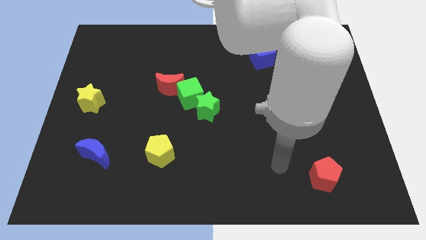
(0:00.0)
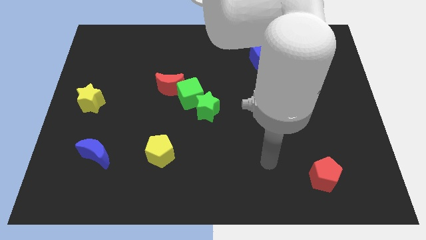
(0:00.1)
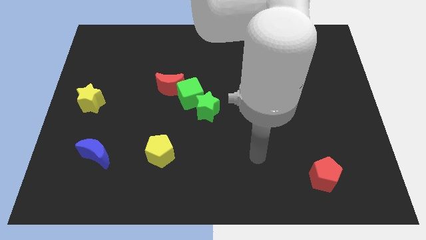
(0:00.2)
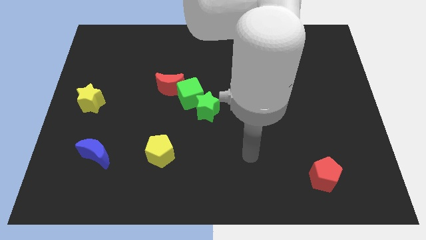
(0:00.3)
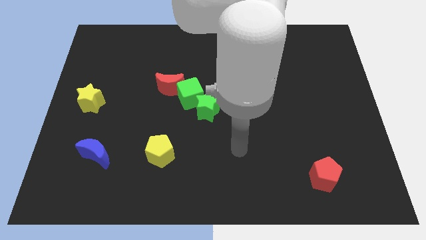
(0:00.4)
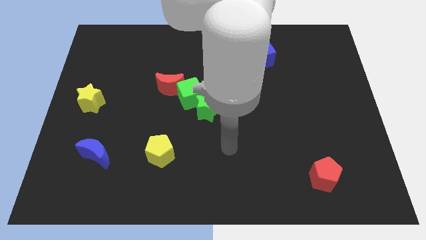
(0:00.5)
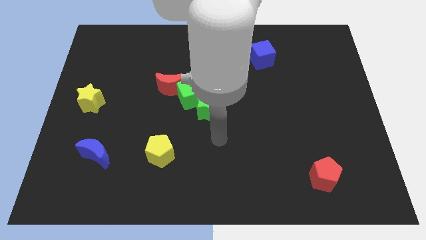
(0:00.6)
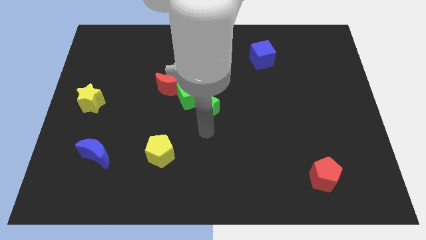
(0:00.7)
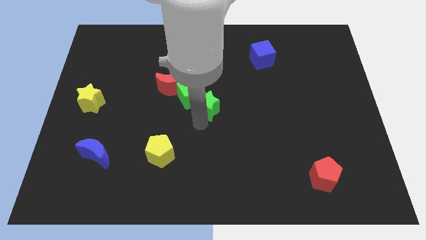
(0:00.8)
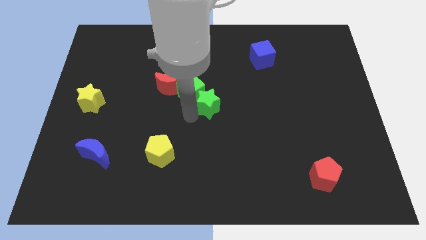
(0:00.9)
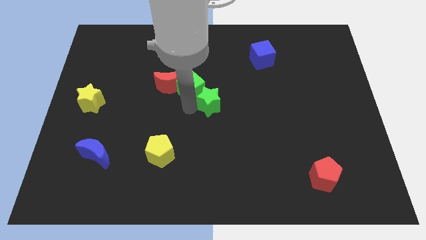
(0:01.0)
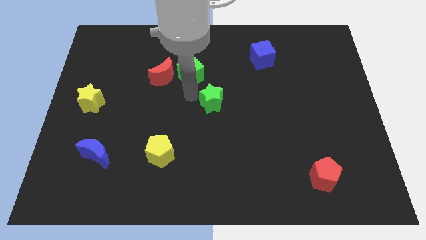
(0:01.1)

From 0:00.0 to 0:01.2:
move the green star away from the green cube

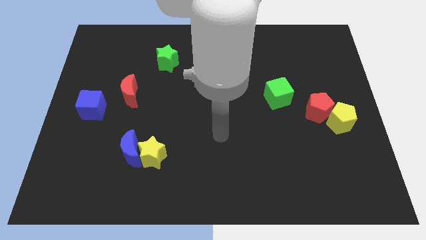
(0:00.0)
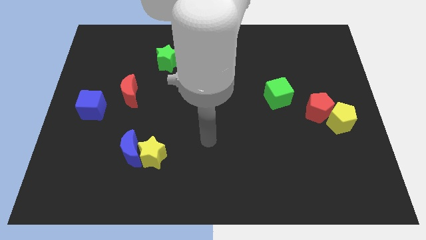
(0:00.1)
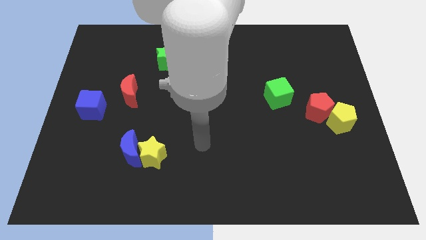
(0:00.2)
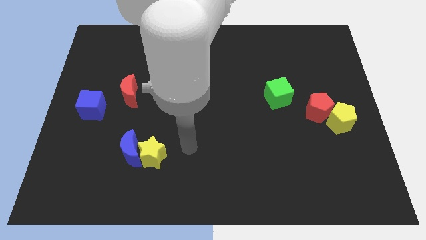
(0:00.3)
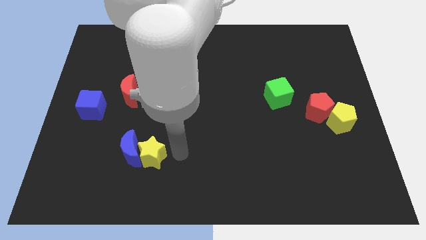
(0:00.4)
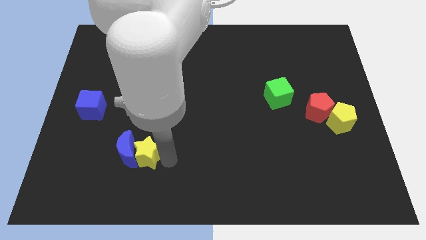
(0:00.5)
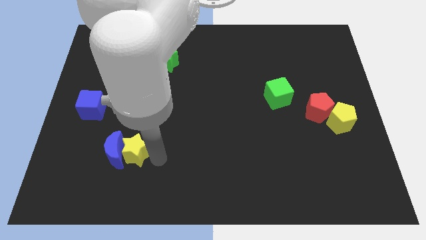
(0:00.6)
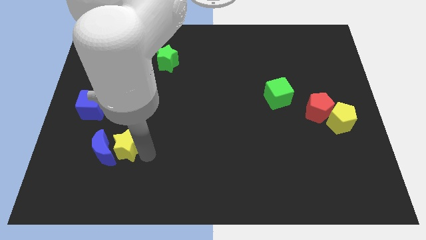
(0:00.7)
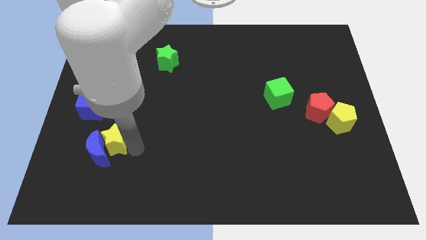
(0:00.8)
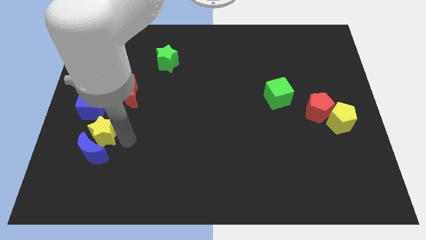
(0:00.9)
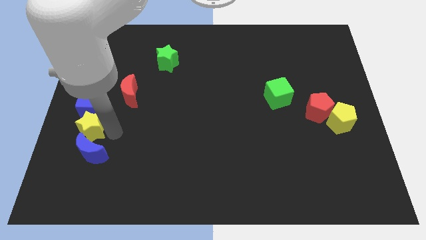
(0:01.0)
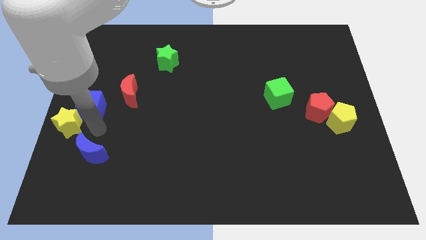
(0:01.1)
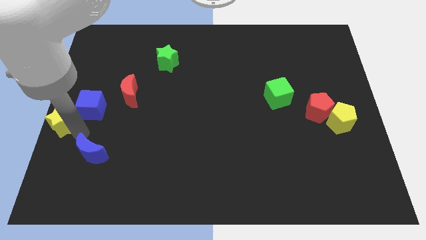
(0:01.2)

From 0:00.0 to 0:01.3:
separate the blue moon from the yellow star

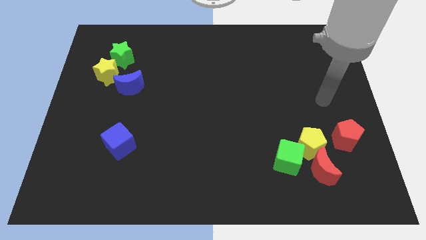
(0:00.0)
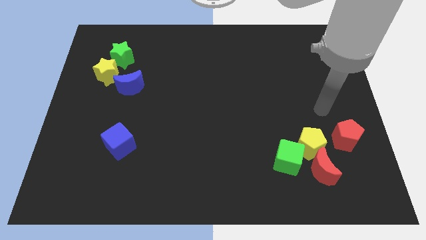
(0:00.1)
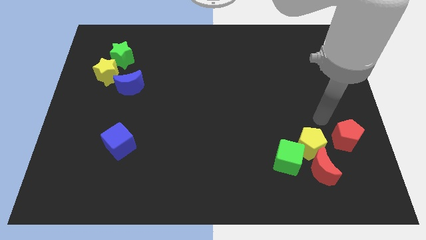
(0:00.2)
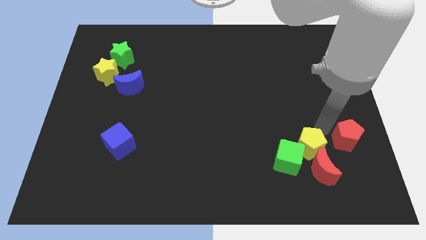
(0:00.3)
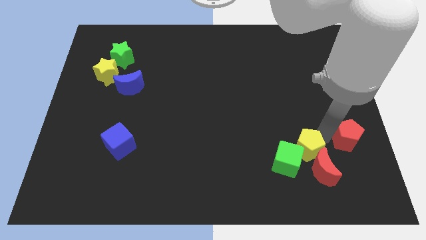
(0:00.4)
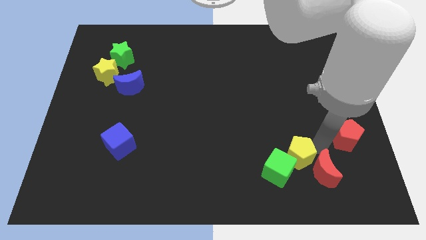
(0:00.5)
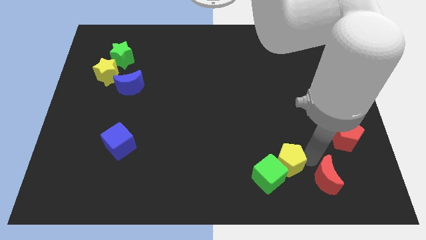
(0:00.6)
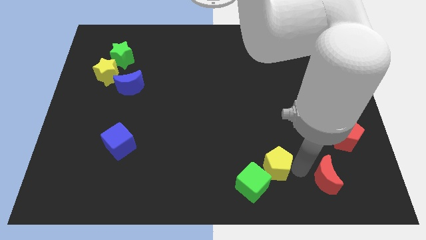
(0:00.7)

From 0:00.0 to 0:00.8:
pull the green cube apart from the yellow pentagon and red moon

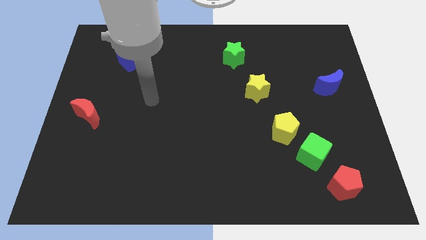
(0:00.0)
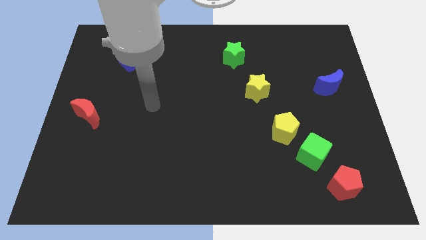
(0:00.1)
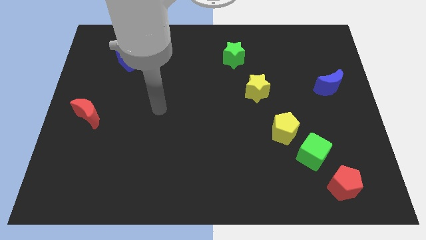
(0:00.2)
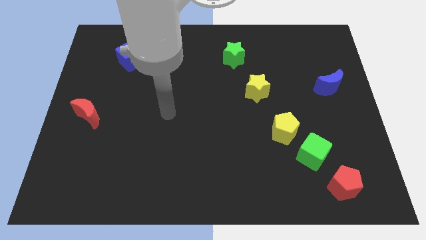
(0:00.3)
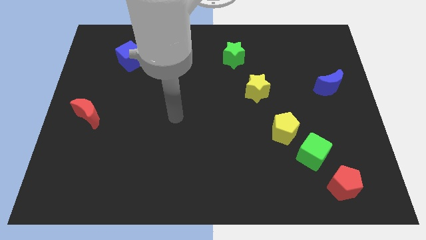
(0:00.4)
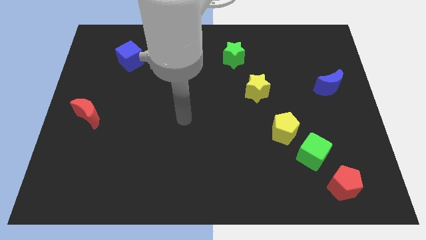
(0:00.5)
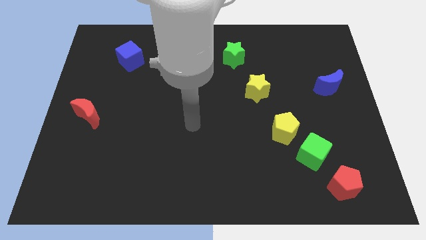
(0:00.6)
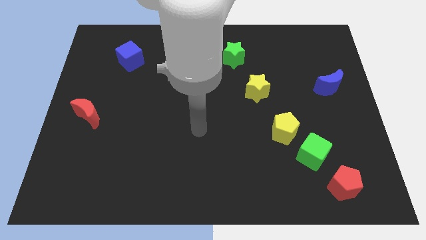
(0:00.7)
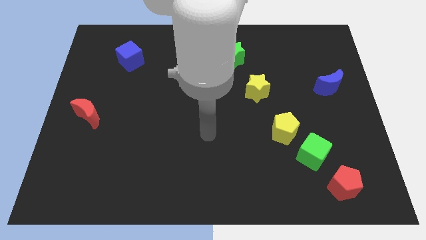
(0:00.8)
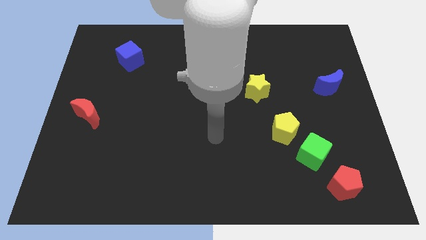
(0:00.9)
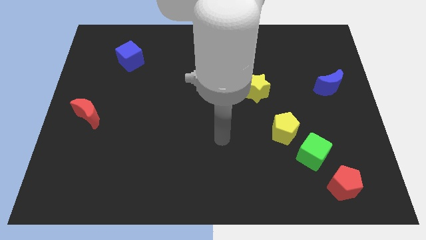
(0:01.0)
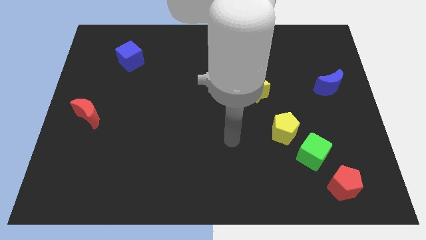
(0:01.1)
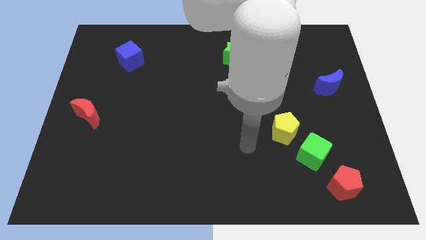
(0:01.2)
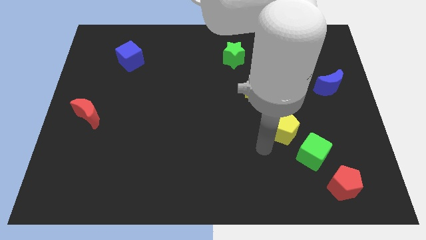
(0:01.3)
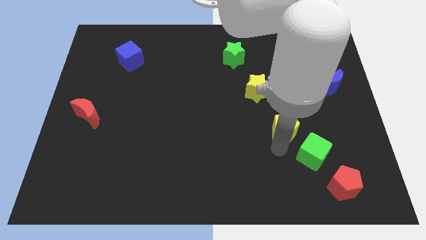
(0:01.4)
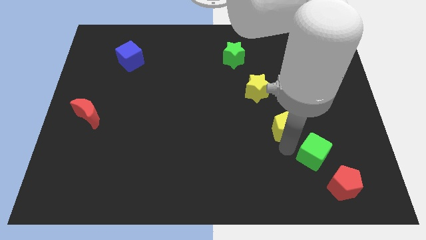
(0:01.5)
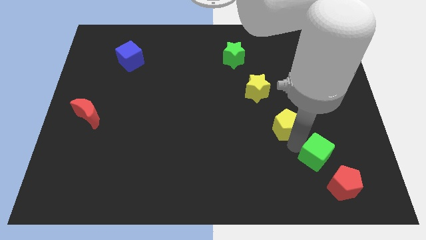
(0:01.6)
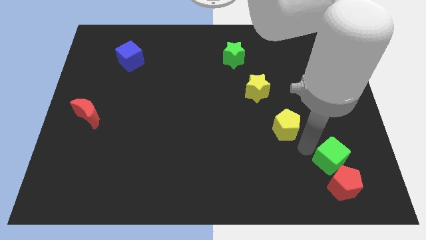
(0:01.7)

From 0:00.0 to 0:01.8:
pull the yellow pentagon apart from the green cube

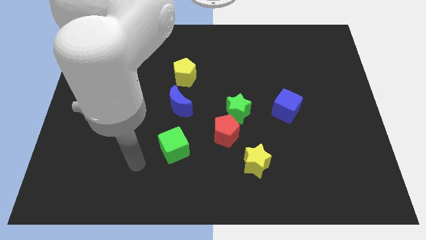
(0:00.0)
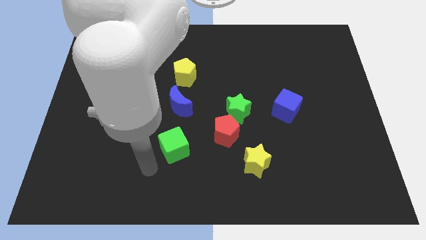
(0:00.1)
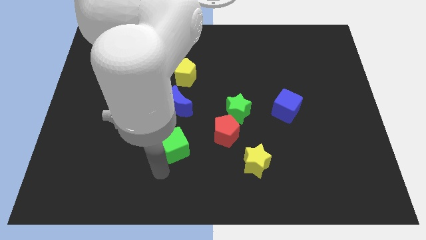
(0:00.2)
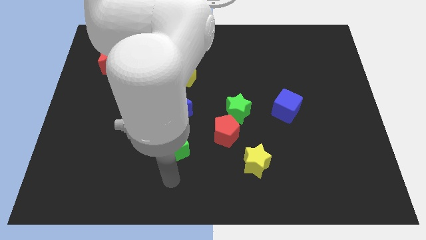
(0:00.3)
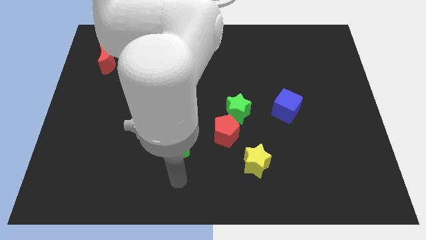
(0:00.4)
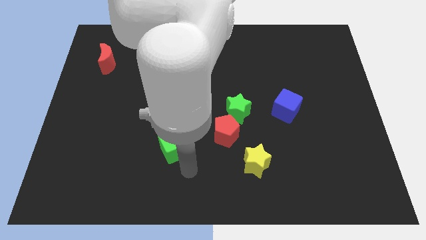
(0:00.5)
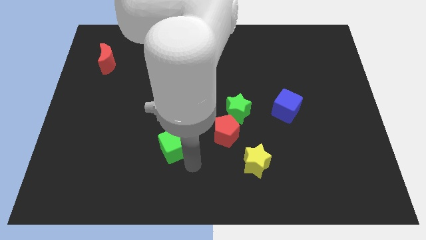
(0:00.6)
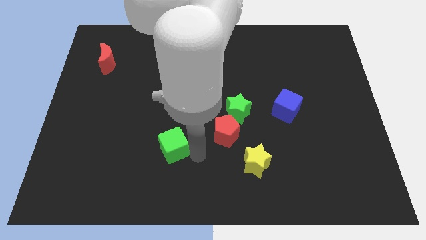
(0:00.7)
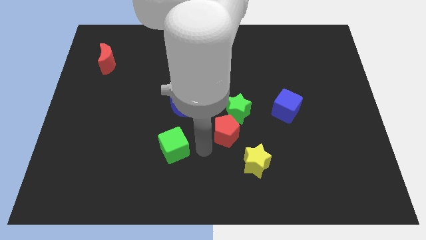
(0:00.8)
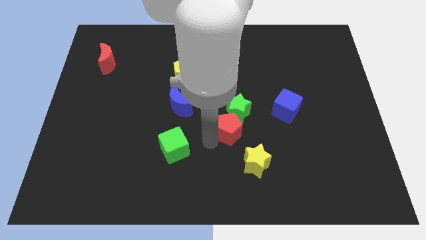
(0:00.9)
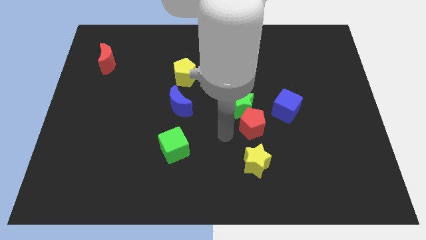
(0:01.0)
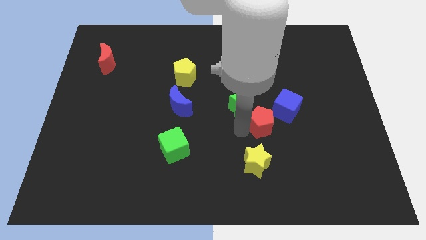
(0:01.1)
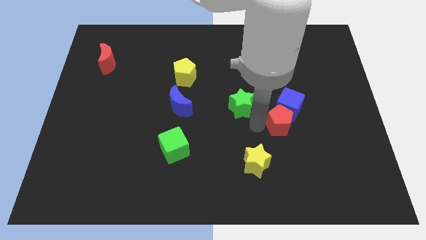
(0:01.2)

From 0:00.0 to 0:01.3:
separate the green star from the red pentagon

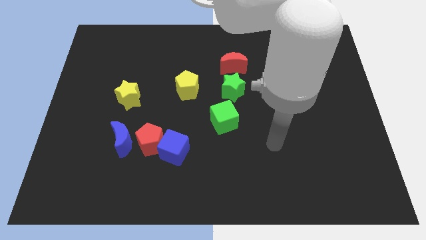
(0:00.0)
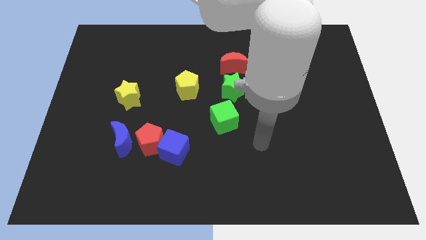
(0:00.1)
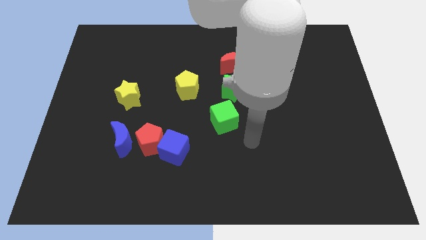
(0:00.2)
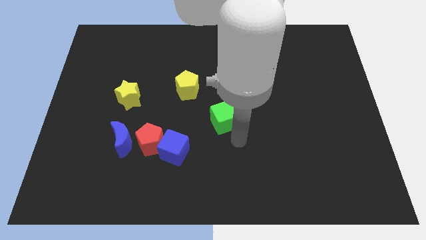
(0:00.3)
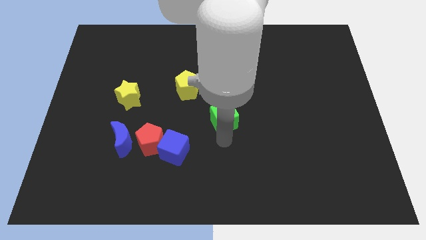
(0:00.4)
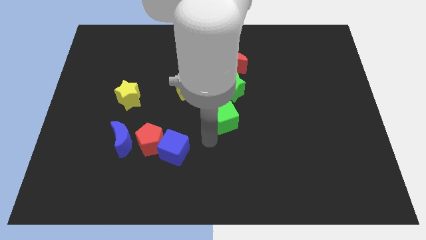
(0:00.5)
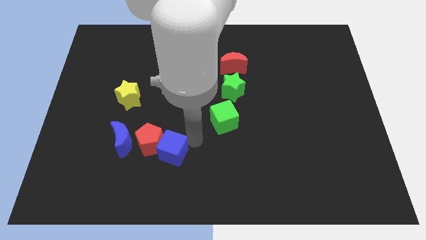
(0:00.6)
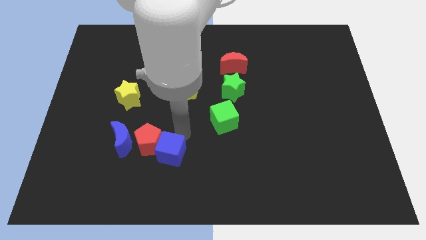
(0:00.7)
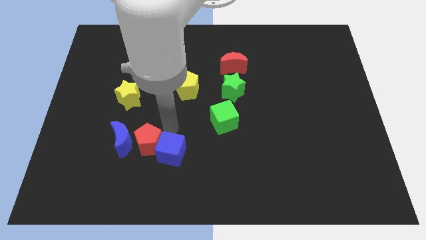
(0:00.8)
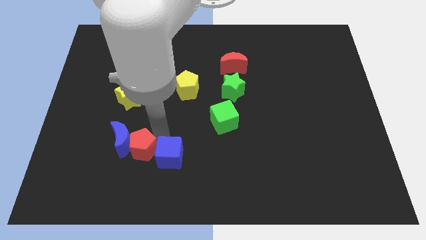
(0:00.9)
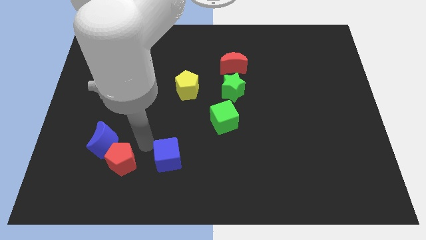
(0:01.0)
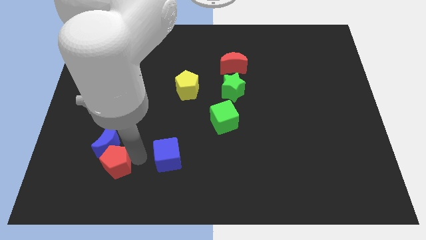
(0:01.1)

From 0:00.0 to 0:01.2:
move the blue cube away from the red pentagon

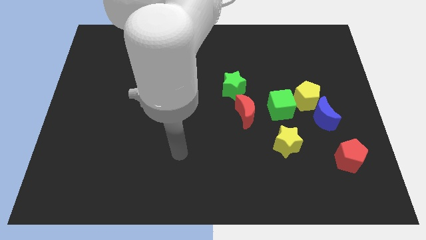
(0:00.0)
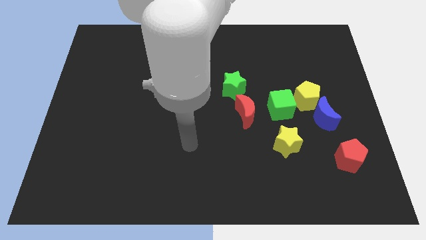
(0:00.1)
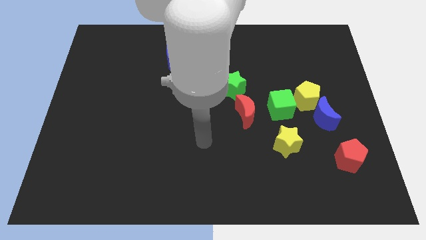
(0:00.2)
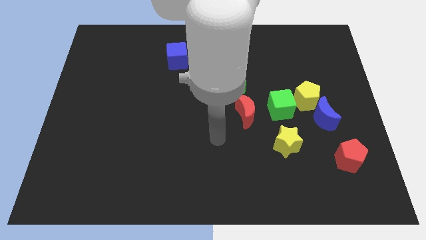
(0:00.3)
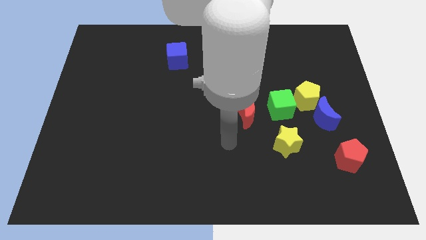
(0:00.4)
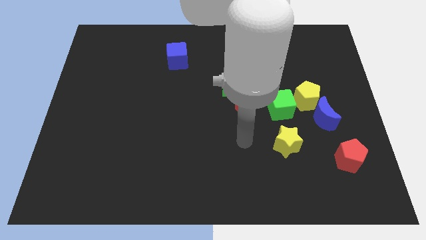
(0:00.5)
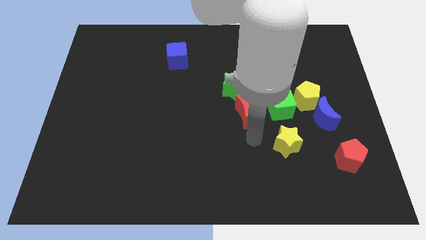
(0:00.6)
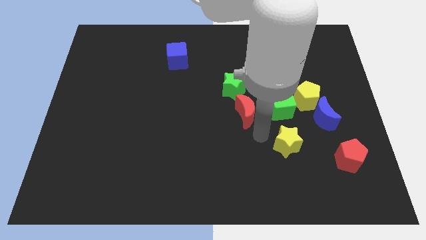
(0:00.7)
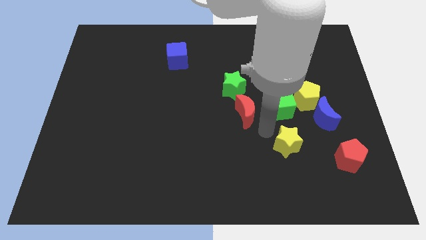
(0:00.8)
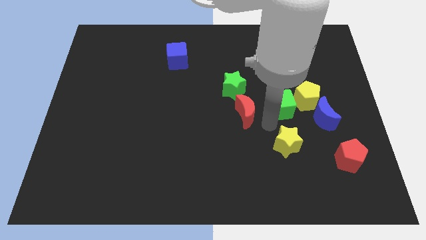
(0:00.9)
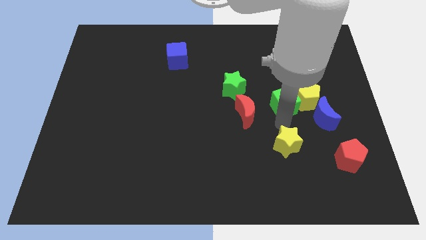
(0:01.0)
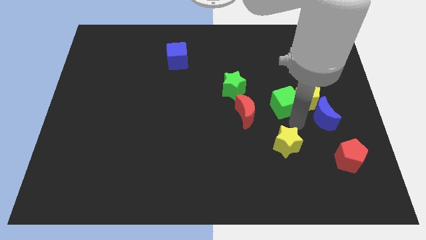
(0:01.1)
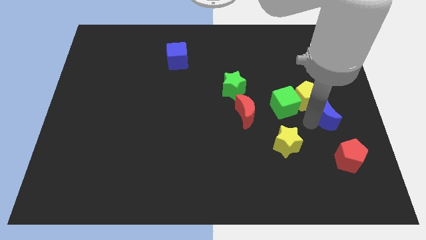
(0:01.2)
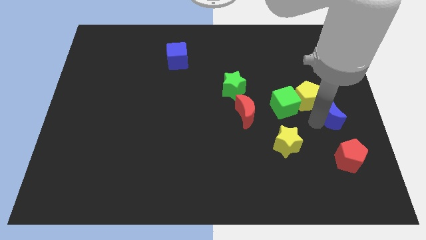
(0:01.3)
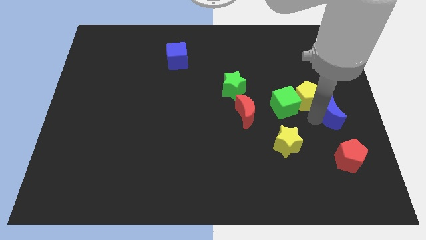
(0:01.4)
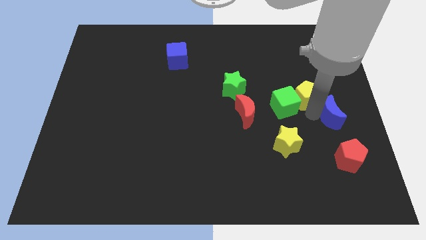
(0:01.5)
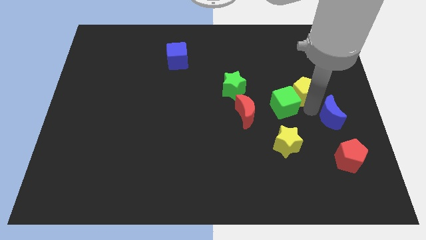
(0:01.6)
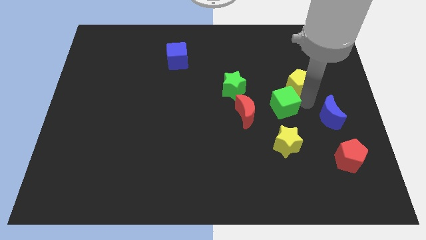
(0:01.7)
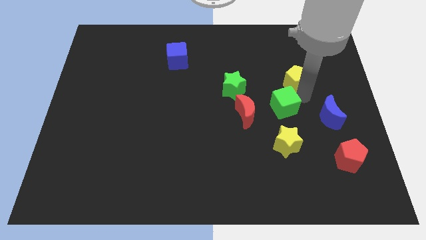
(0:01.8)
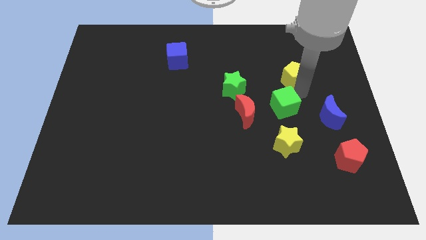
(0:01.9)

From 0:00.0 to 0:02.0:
pull the yellow pentagon apart from the blue moon and green cube
